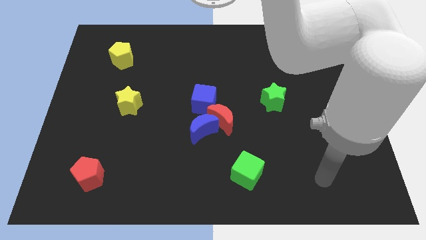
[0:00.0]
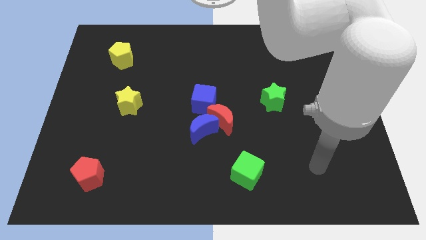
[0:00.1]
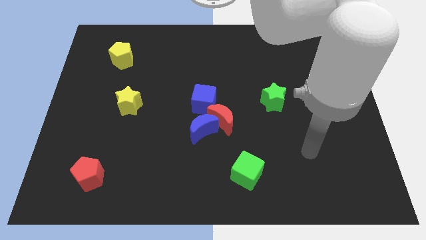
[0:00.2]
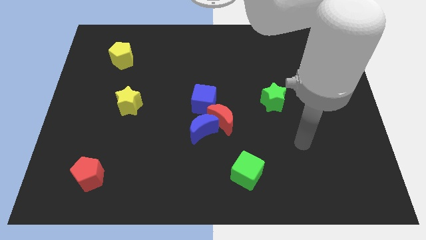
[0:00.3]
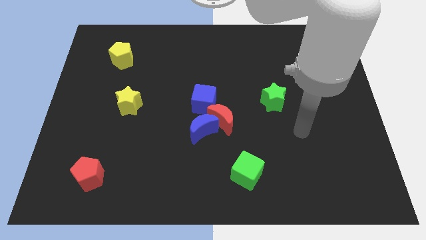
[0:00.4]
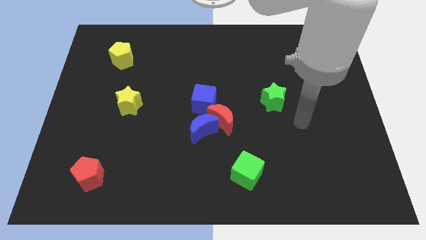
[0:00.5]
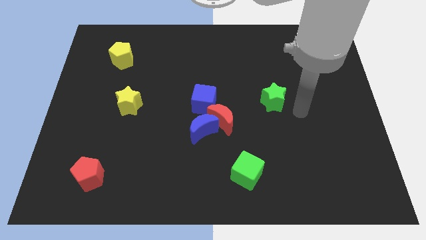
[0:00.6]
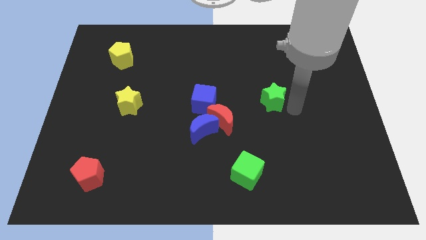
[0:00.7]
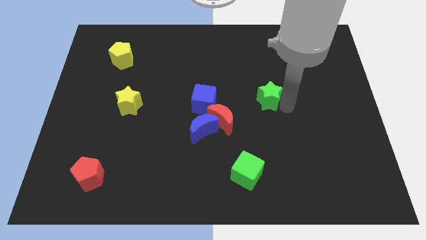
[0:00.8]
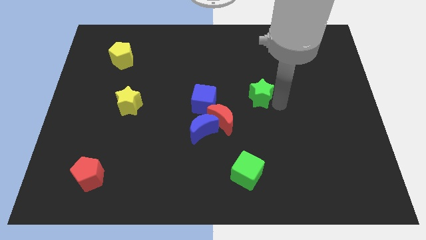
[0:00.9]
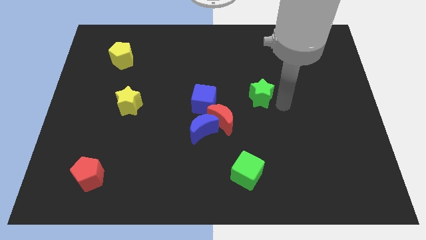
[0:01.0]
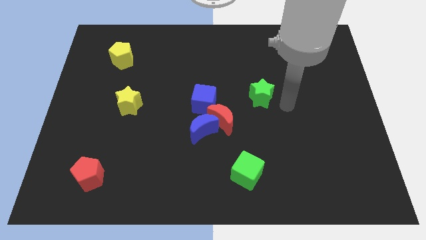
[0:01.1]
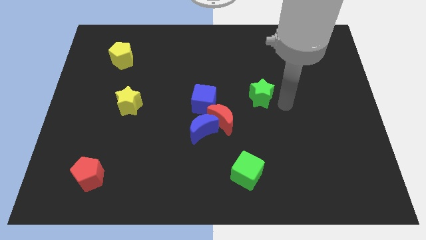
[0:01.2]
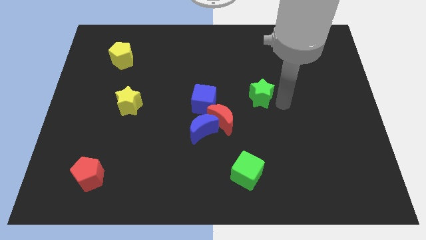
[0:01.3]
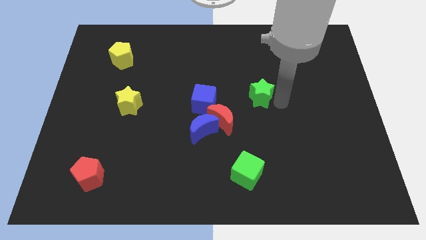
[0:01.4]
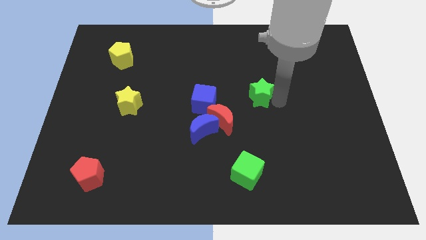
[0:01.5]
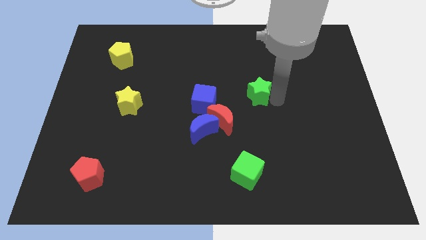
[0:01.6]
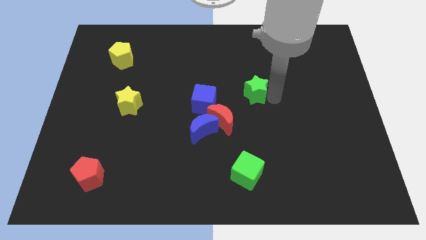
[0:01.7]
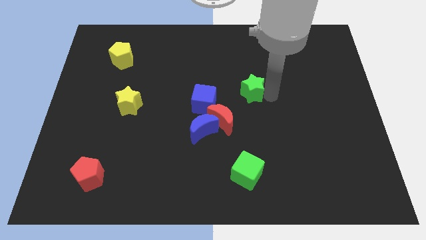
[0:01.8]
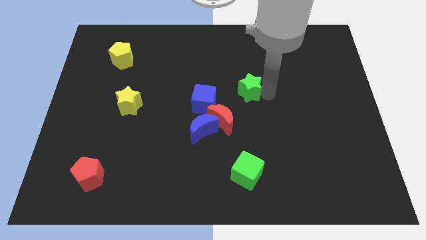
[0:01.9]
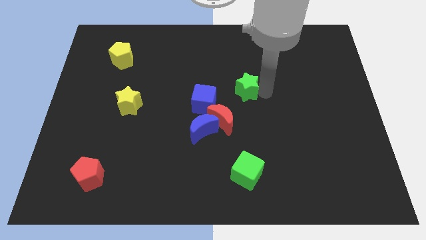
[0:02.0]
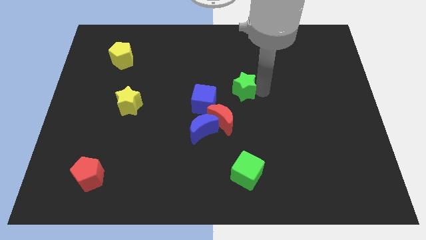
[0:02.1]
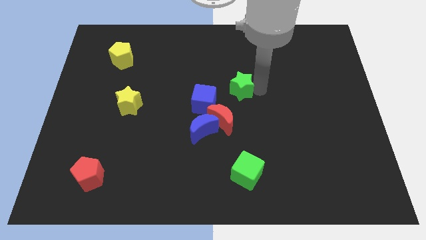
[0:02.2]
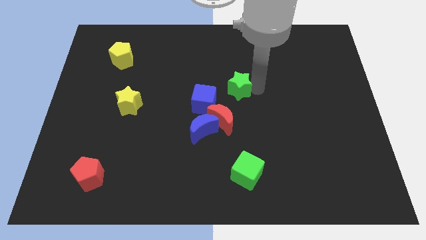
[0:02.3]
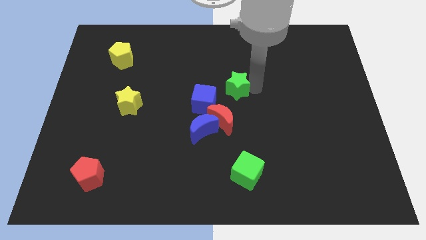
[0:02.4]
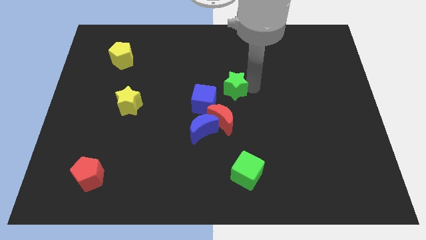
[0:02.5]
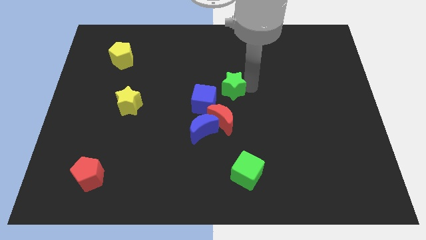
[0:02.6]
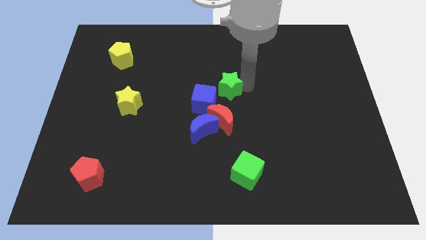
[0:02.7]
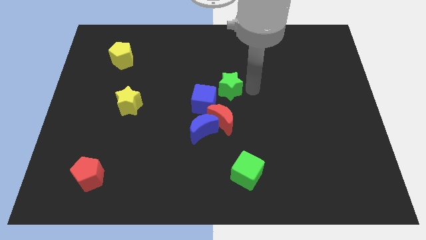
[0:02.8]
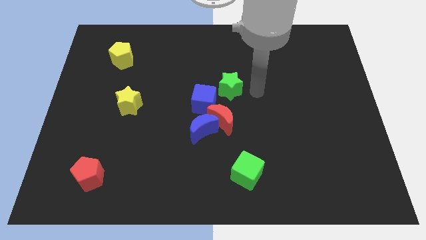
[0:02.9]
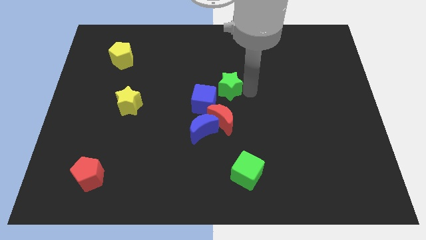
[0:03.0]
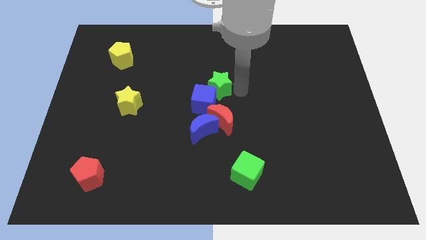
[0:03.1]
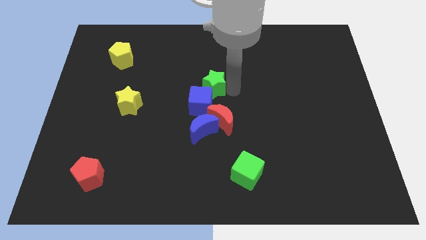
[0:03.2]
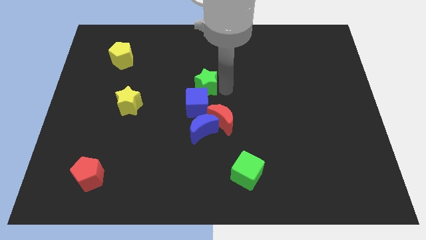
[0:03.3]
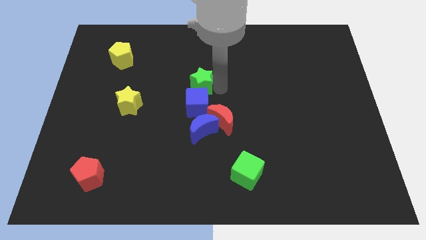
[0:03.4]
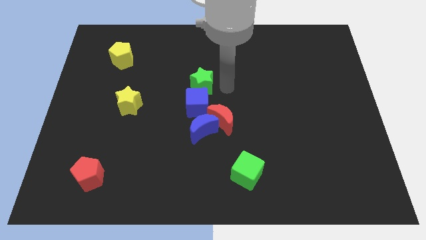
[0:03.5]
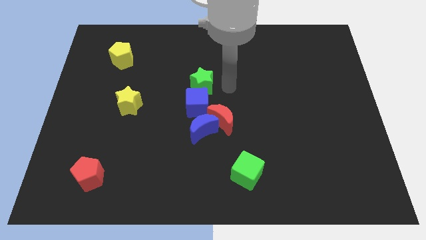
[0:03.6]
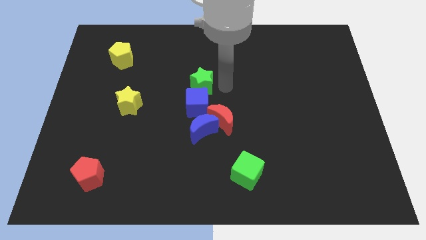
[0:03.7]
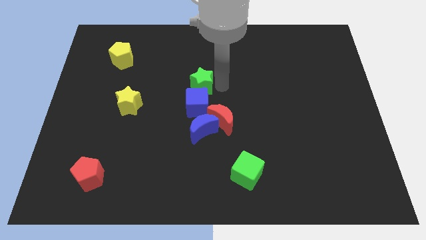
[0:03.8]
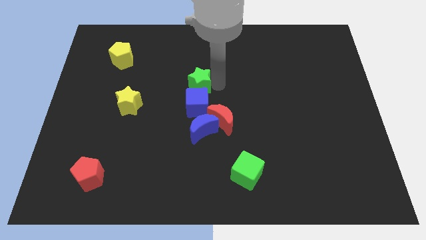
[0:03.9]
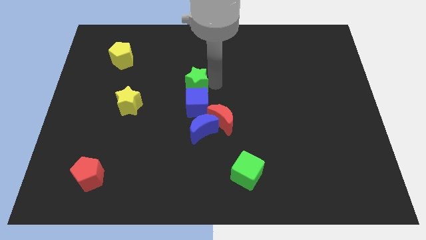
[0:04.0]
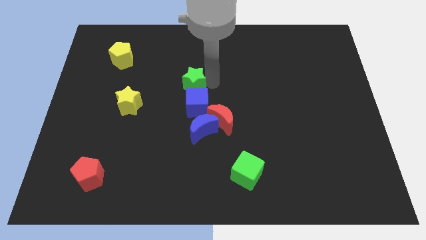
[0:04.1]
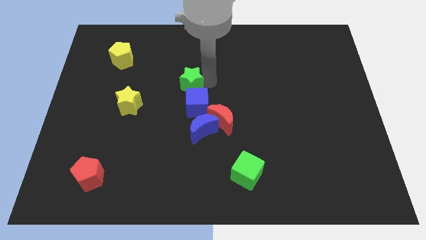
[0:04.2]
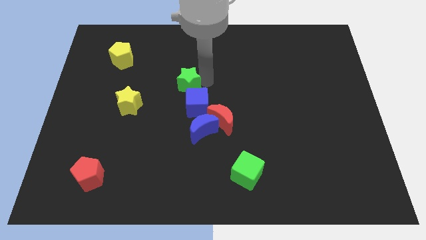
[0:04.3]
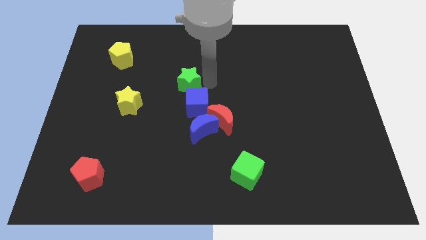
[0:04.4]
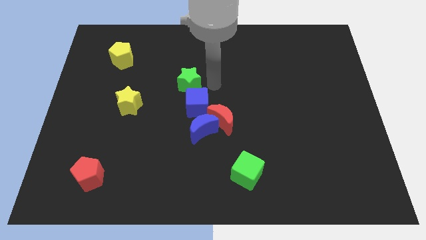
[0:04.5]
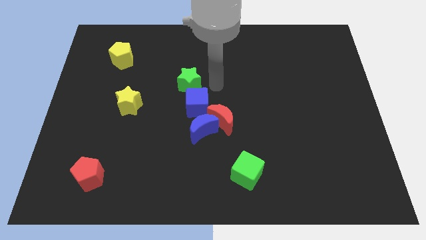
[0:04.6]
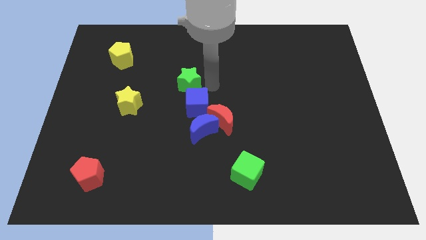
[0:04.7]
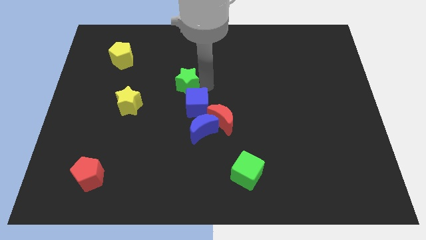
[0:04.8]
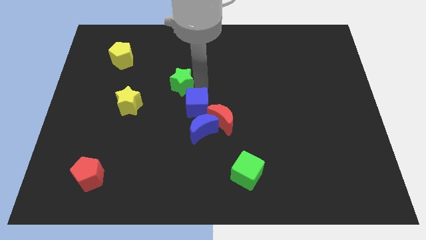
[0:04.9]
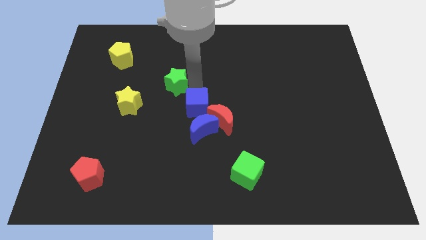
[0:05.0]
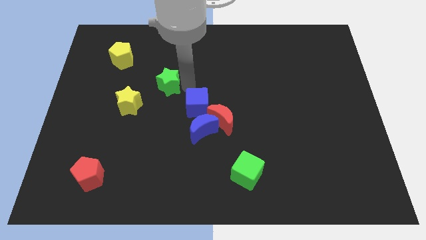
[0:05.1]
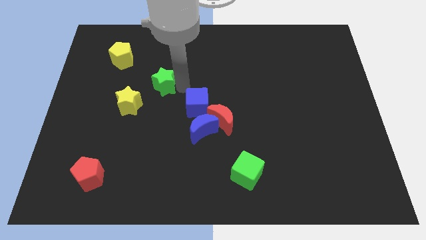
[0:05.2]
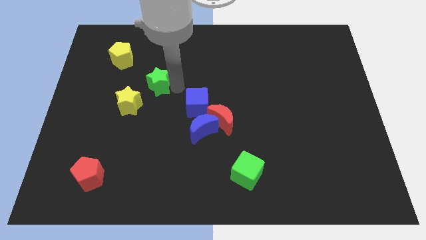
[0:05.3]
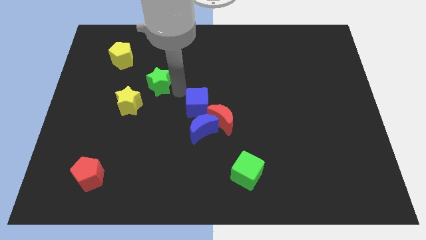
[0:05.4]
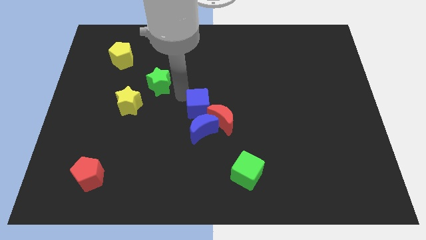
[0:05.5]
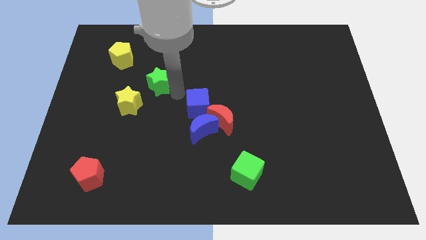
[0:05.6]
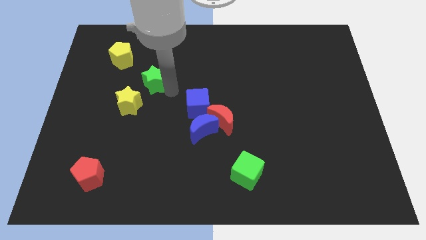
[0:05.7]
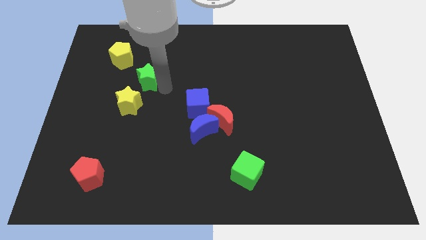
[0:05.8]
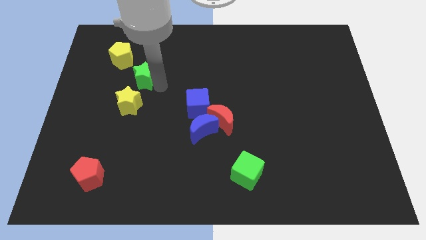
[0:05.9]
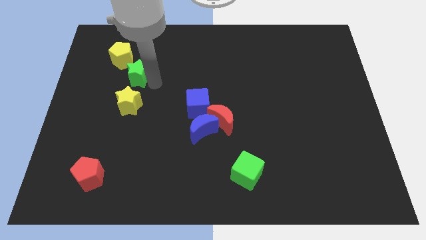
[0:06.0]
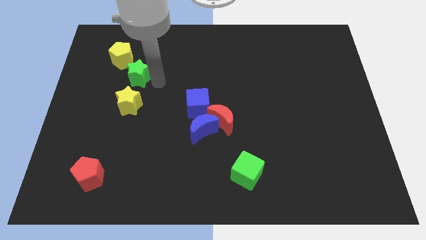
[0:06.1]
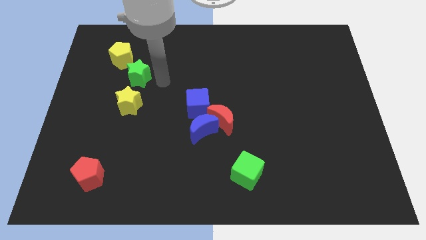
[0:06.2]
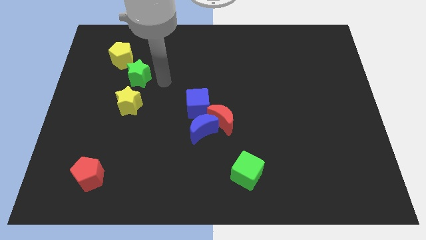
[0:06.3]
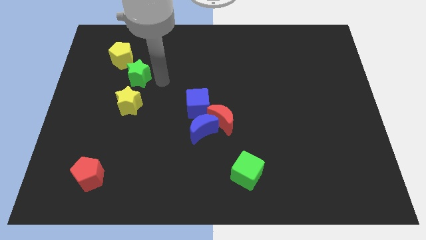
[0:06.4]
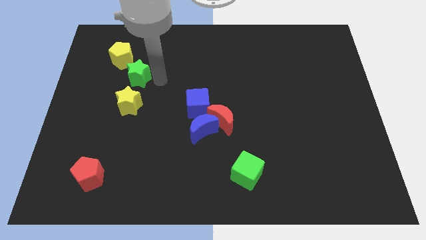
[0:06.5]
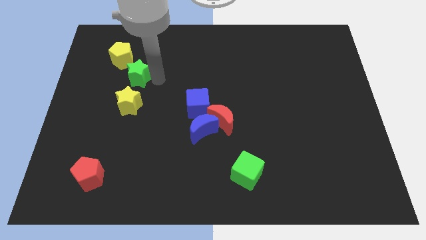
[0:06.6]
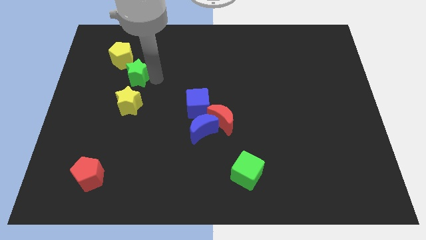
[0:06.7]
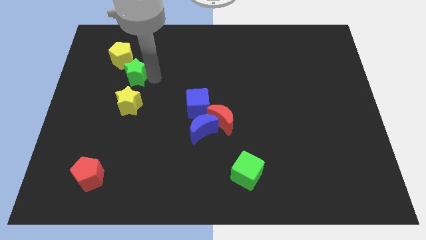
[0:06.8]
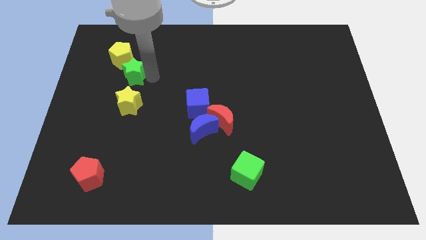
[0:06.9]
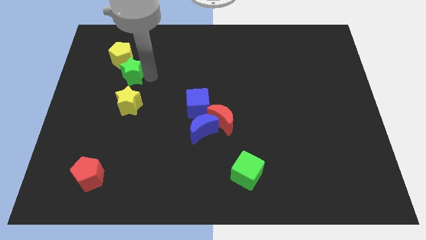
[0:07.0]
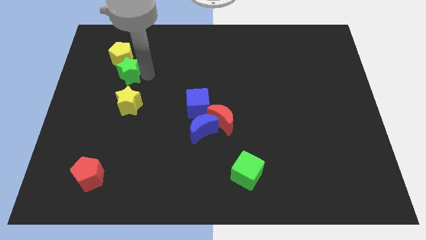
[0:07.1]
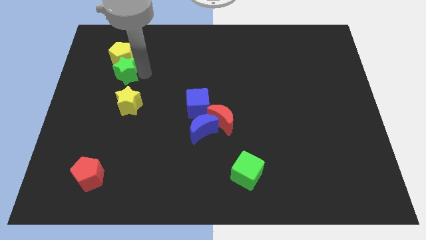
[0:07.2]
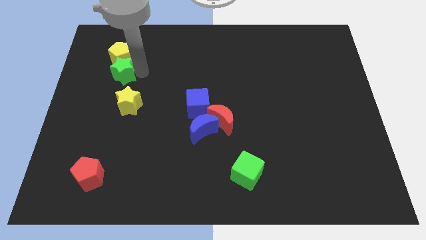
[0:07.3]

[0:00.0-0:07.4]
slide the green star to the bottom left of the yellow pentagon

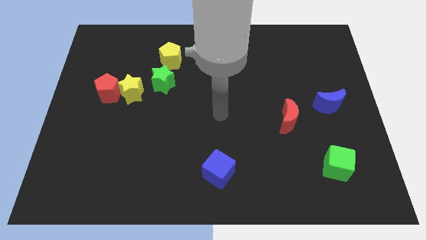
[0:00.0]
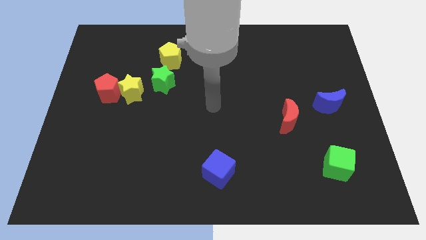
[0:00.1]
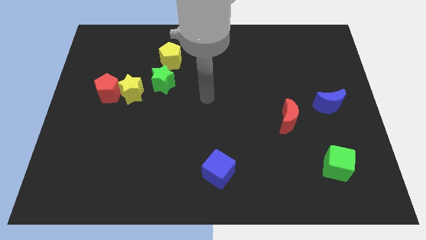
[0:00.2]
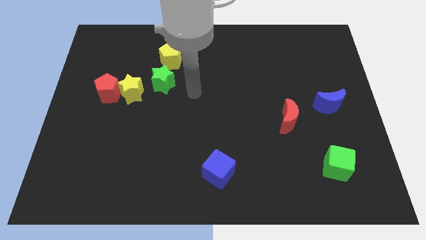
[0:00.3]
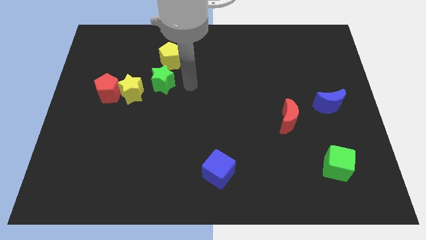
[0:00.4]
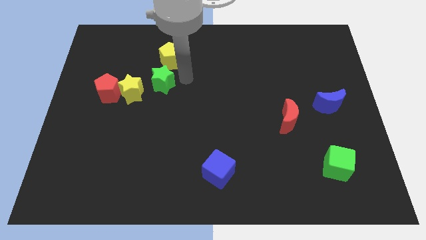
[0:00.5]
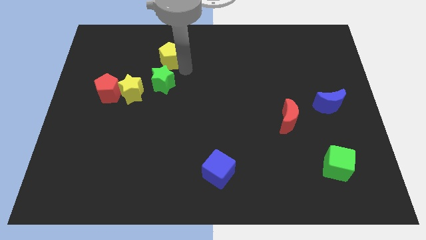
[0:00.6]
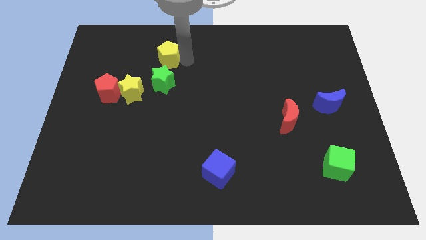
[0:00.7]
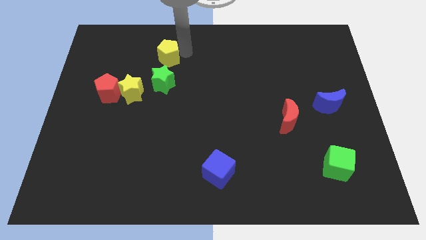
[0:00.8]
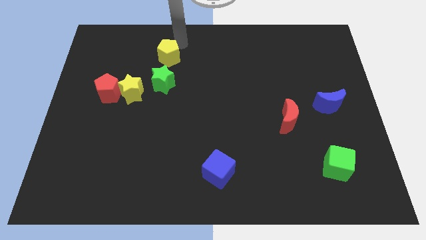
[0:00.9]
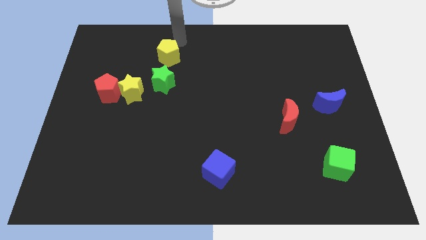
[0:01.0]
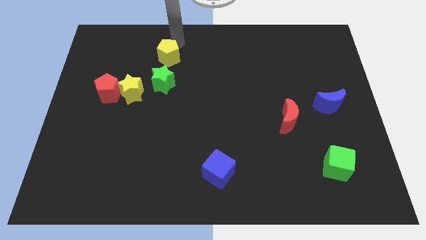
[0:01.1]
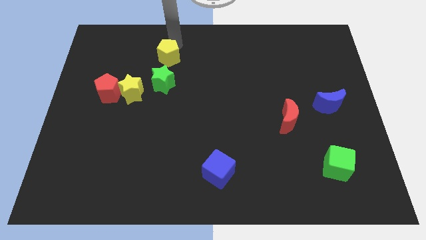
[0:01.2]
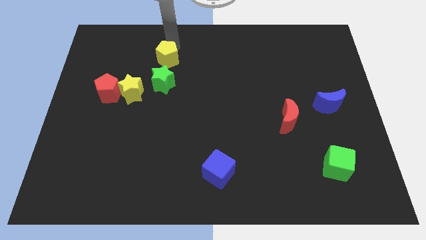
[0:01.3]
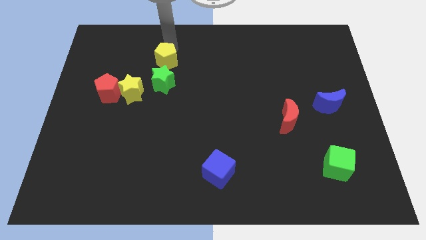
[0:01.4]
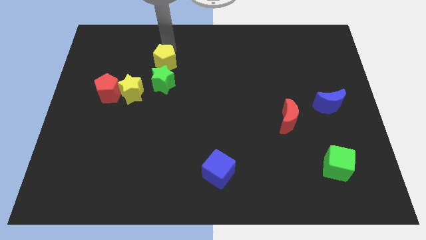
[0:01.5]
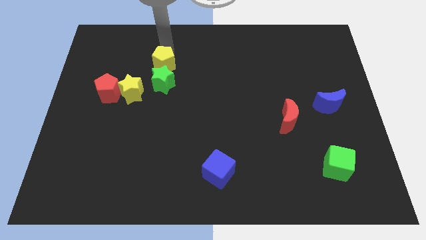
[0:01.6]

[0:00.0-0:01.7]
move the yellow pentagon to the top right side of the yellow star
